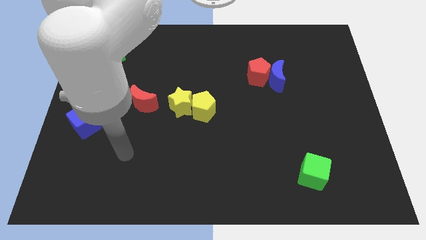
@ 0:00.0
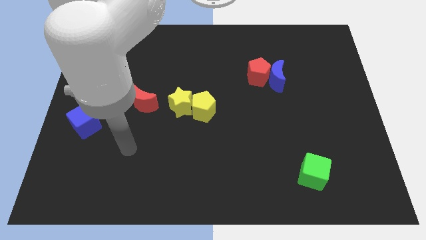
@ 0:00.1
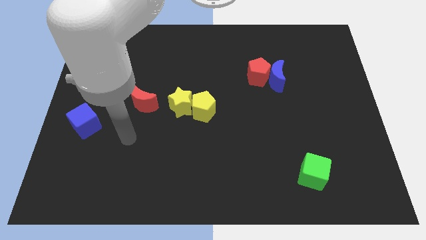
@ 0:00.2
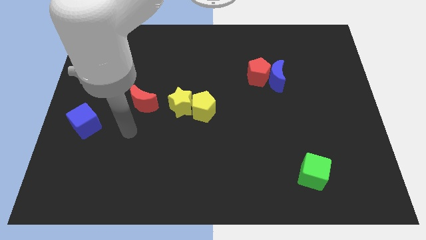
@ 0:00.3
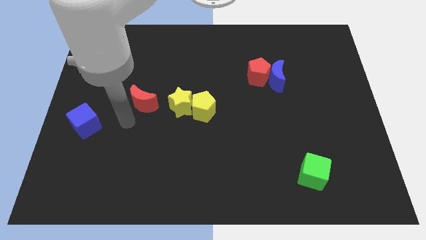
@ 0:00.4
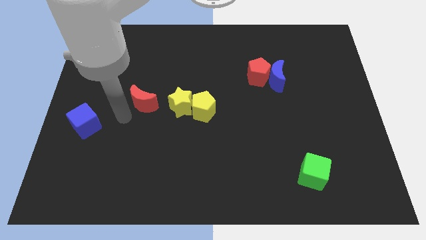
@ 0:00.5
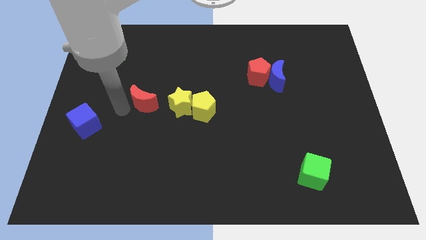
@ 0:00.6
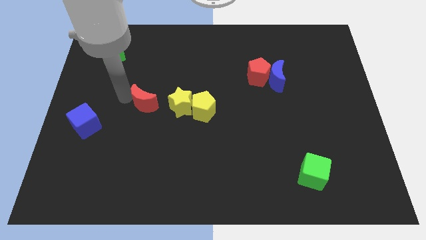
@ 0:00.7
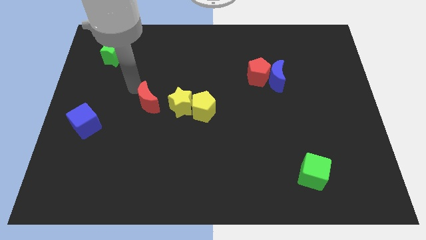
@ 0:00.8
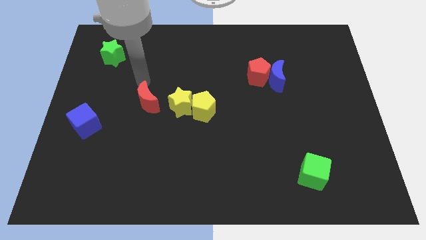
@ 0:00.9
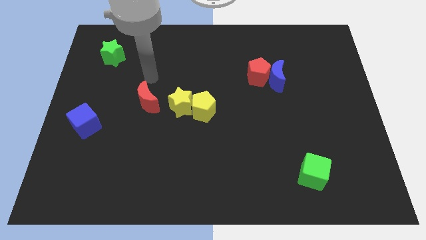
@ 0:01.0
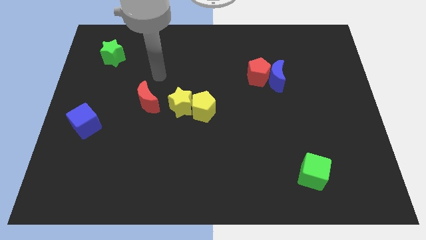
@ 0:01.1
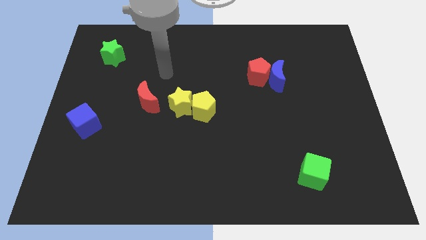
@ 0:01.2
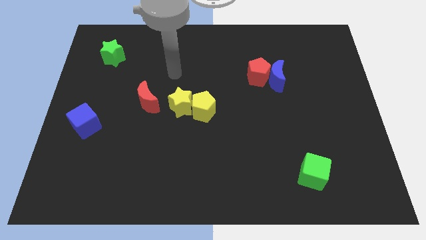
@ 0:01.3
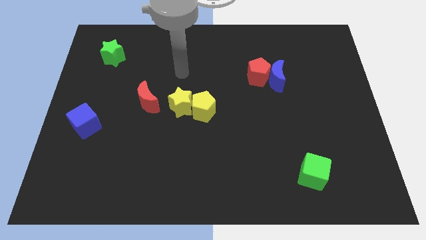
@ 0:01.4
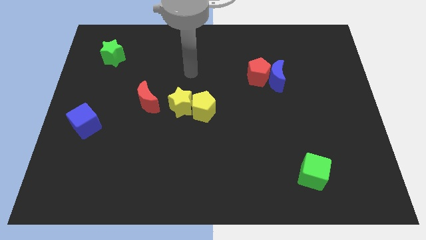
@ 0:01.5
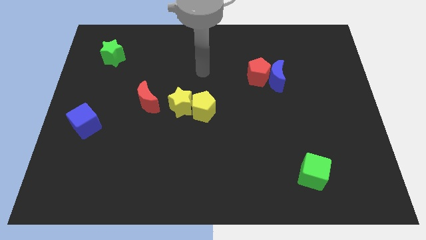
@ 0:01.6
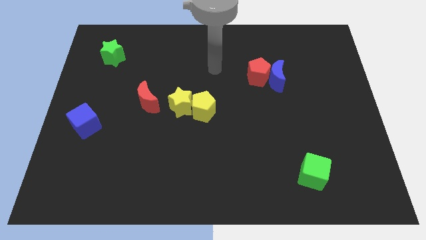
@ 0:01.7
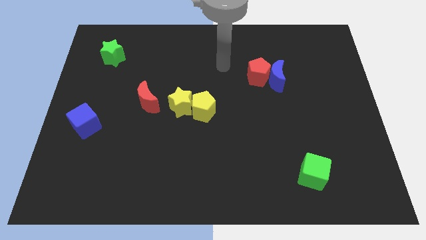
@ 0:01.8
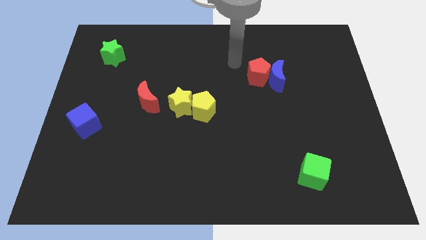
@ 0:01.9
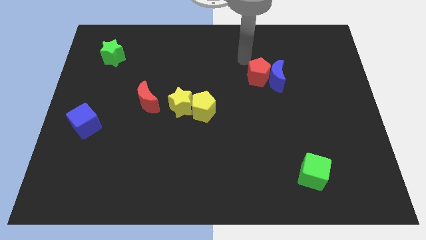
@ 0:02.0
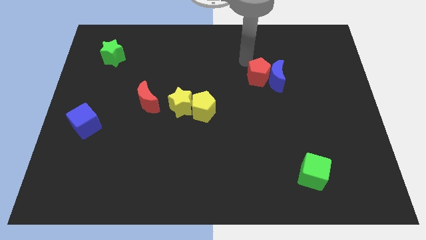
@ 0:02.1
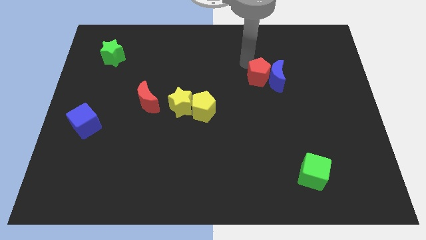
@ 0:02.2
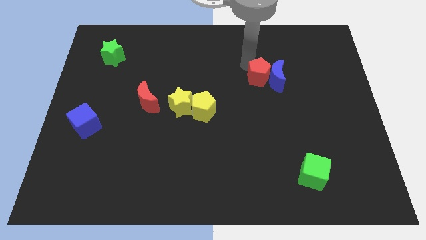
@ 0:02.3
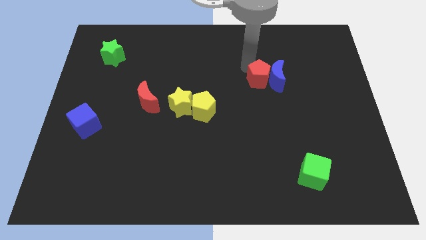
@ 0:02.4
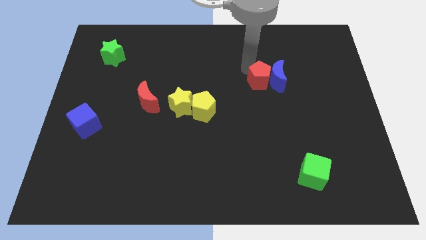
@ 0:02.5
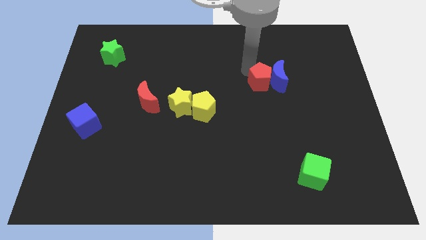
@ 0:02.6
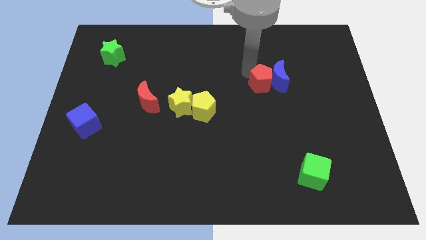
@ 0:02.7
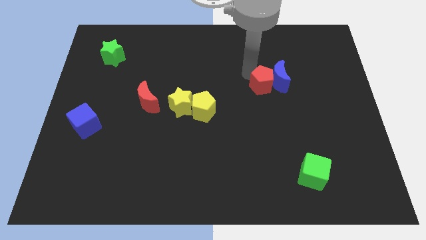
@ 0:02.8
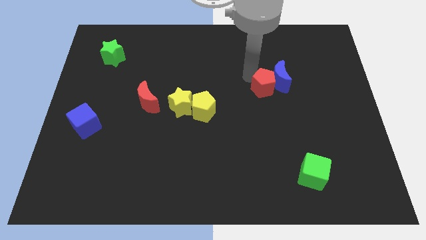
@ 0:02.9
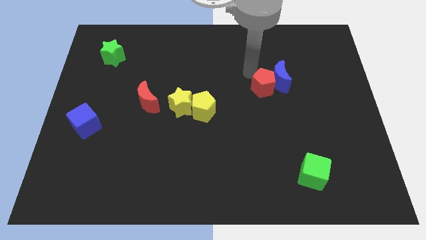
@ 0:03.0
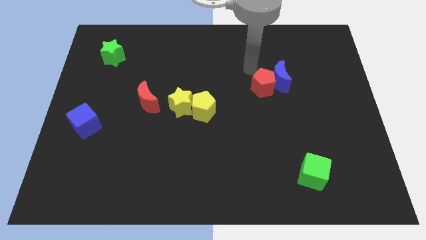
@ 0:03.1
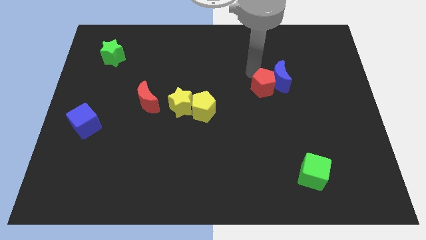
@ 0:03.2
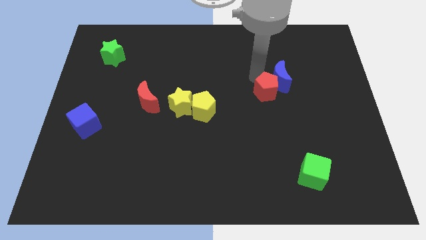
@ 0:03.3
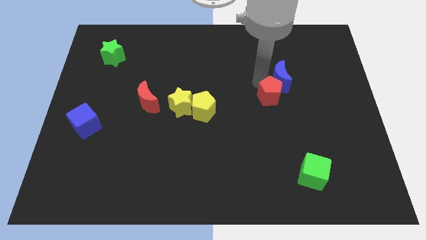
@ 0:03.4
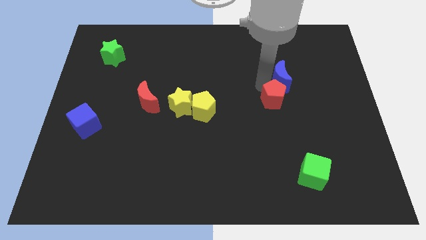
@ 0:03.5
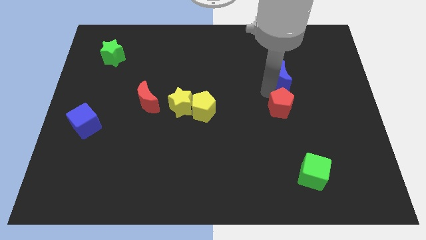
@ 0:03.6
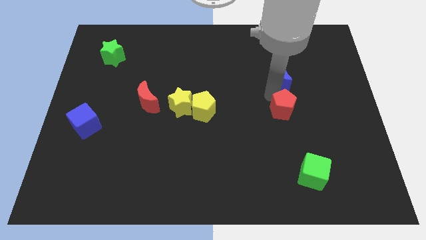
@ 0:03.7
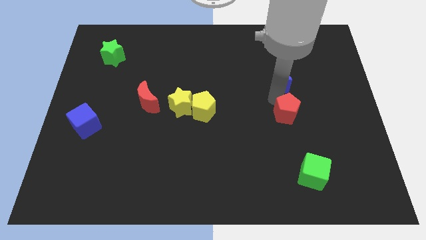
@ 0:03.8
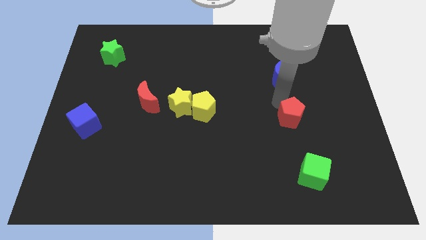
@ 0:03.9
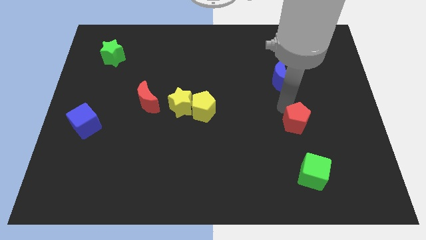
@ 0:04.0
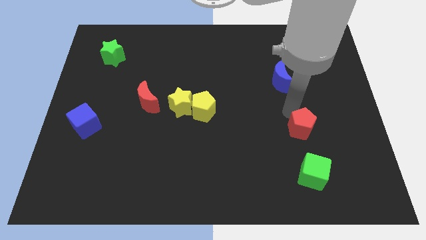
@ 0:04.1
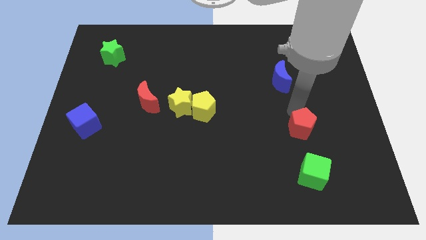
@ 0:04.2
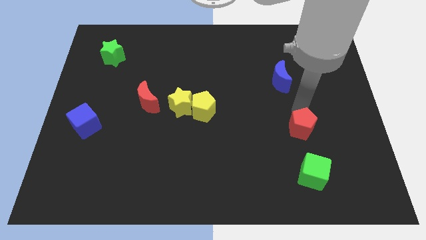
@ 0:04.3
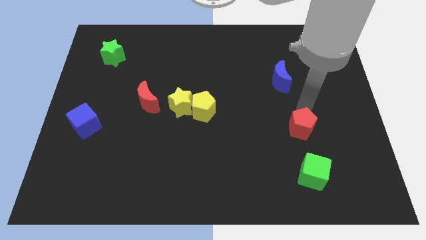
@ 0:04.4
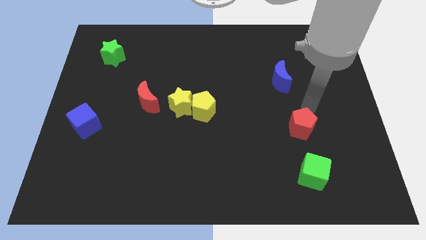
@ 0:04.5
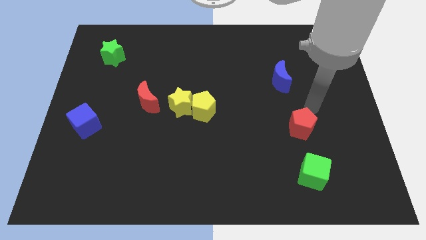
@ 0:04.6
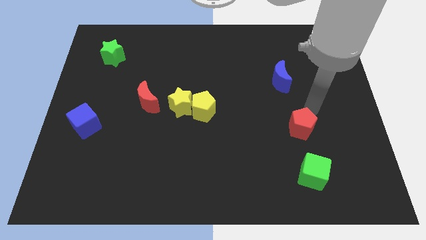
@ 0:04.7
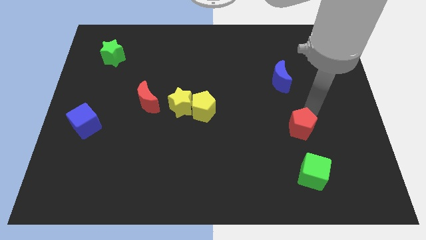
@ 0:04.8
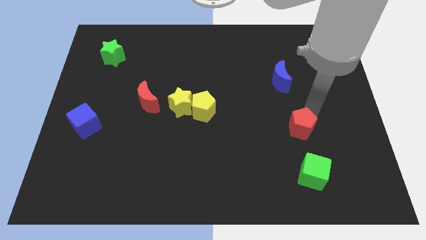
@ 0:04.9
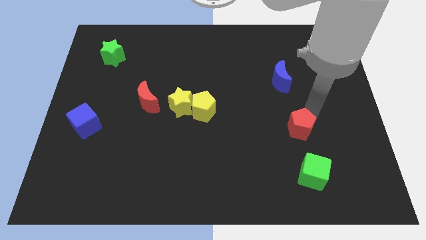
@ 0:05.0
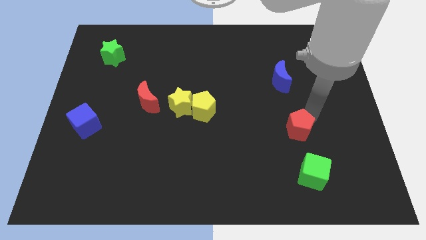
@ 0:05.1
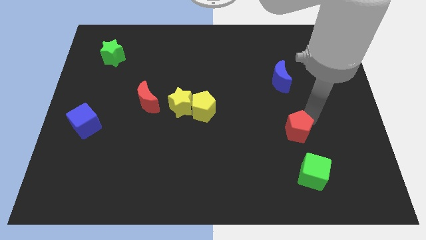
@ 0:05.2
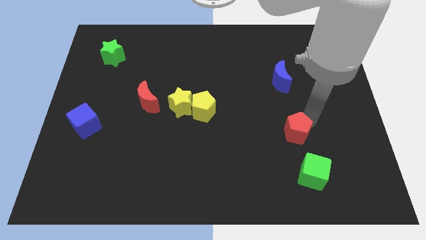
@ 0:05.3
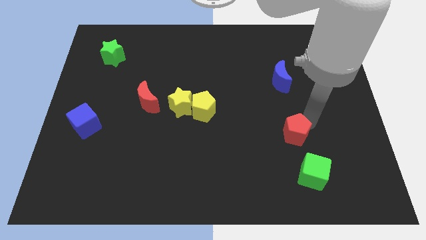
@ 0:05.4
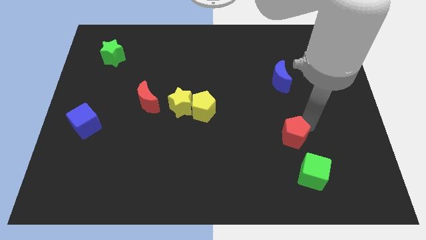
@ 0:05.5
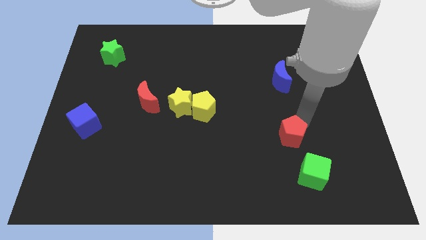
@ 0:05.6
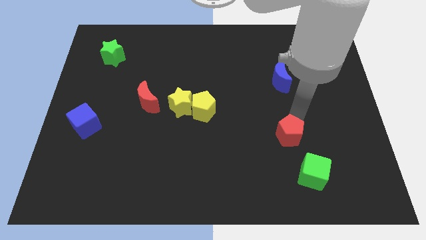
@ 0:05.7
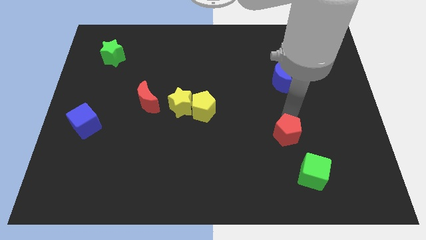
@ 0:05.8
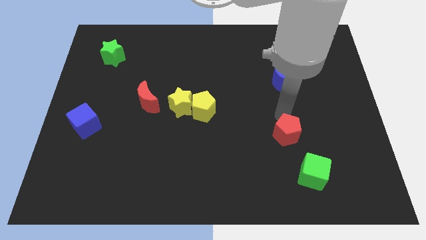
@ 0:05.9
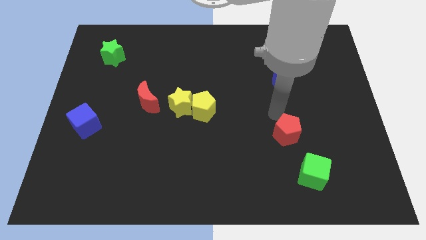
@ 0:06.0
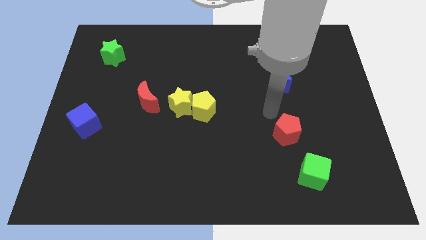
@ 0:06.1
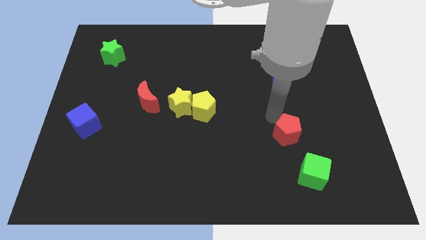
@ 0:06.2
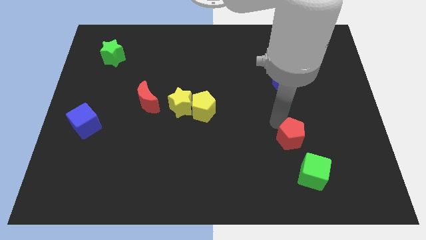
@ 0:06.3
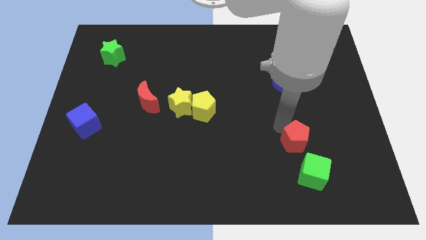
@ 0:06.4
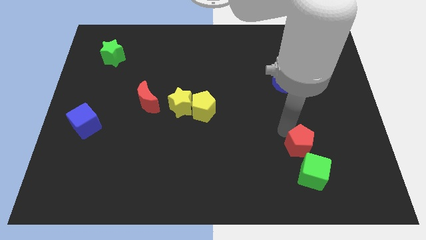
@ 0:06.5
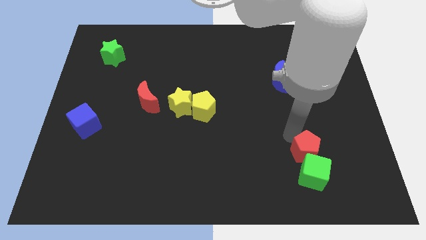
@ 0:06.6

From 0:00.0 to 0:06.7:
move the red pentagon to the green cube
